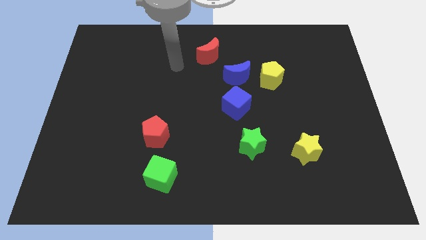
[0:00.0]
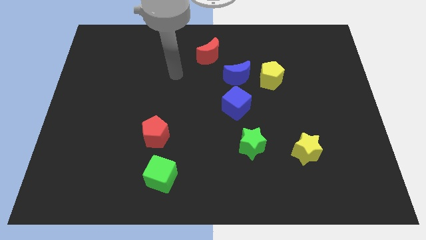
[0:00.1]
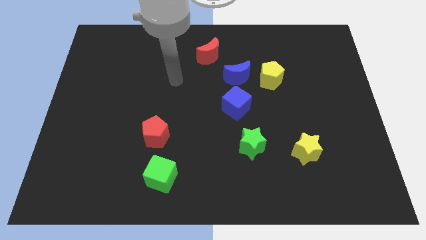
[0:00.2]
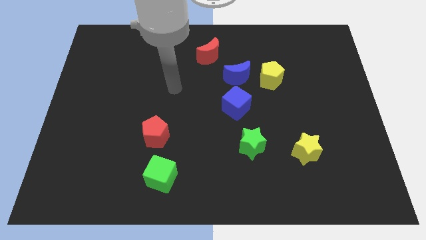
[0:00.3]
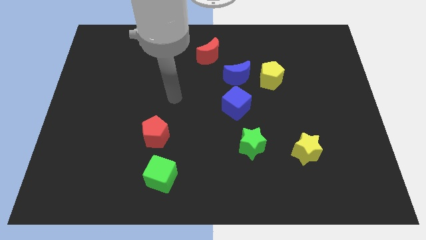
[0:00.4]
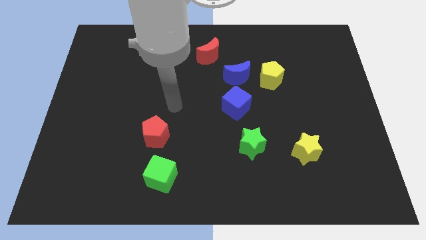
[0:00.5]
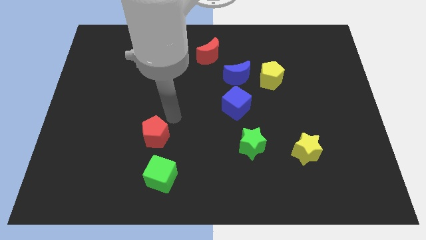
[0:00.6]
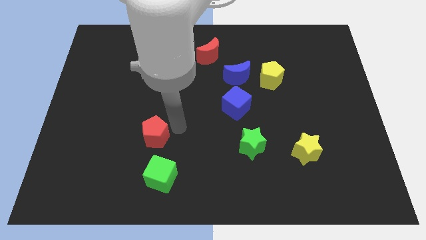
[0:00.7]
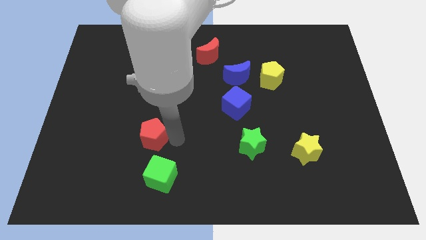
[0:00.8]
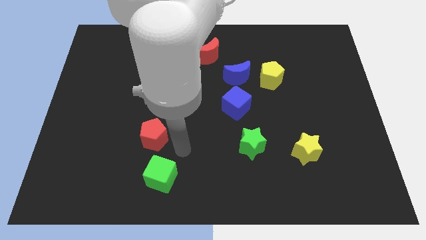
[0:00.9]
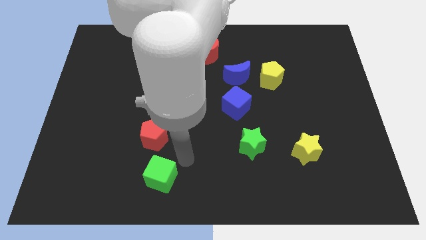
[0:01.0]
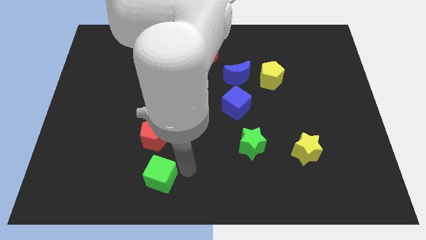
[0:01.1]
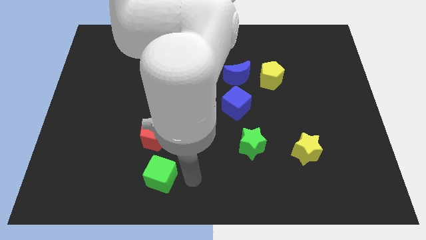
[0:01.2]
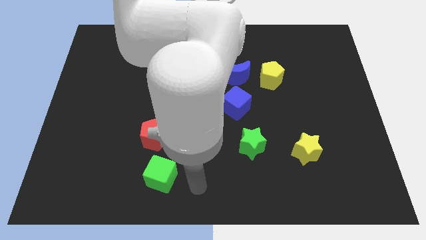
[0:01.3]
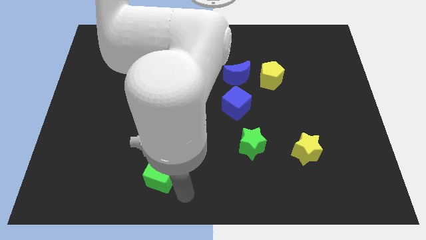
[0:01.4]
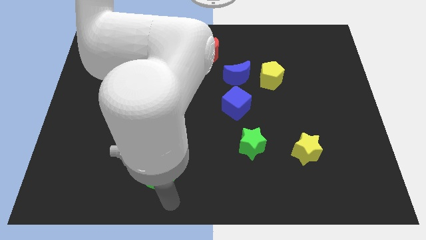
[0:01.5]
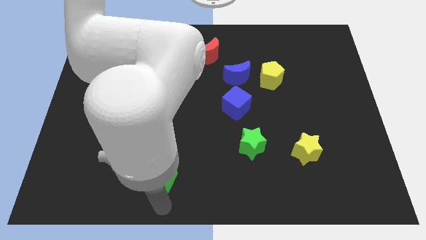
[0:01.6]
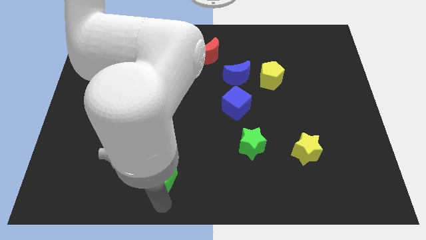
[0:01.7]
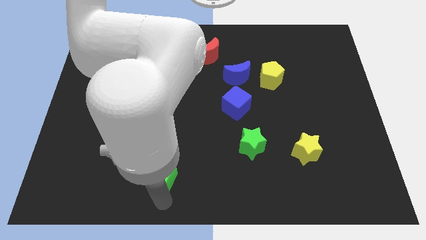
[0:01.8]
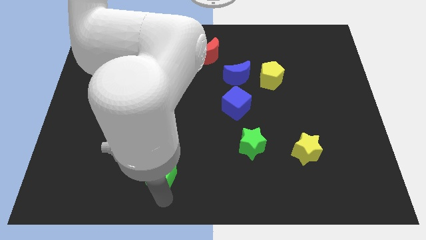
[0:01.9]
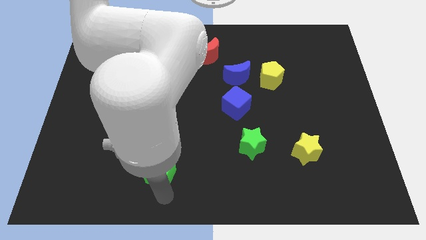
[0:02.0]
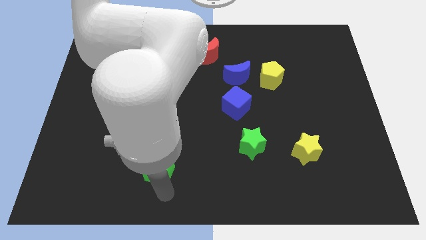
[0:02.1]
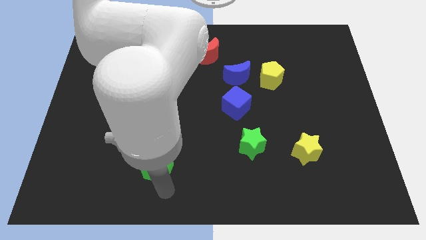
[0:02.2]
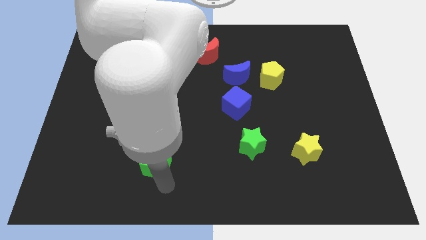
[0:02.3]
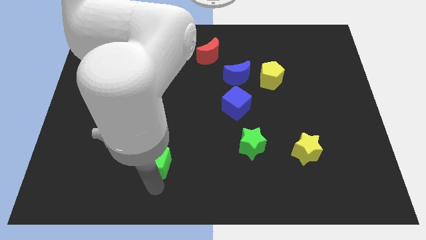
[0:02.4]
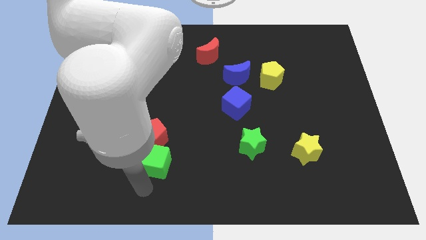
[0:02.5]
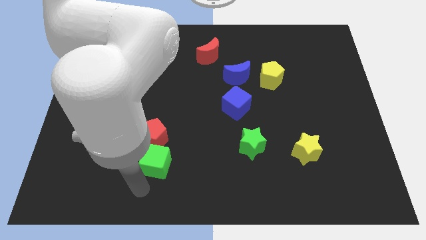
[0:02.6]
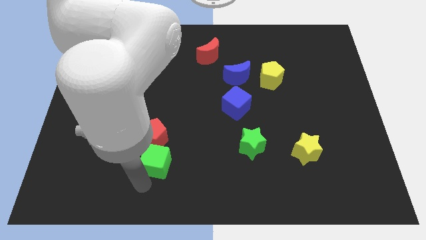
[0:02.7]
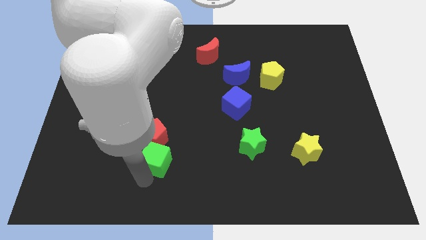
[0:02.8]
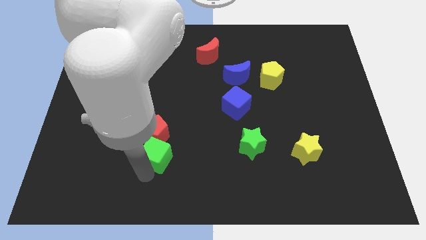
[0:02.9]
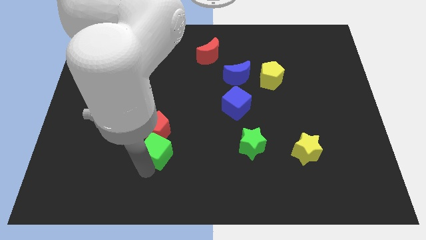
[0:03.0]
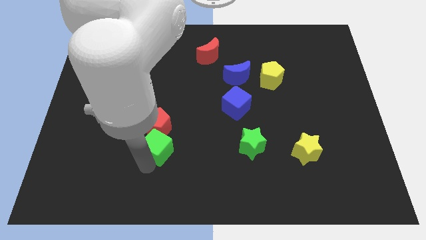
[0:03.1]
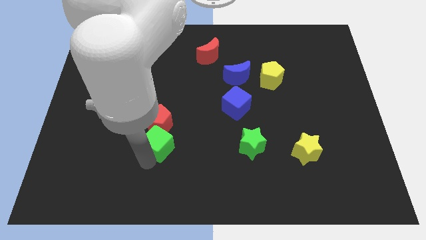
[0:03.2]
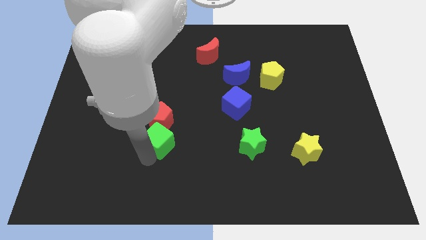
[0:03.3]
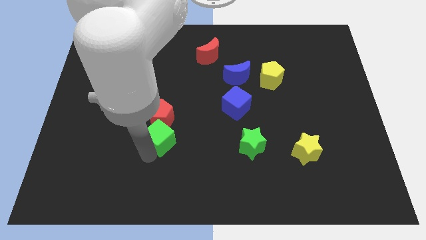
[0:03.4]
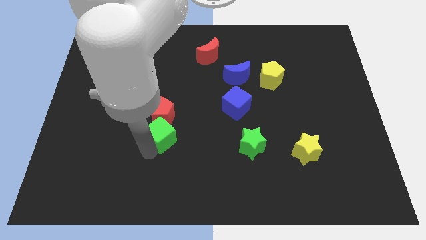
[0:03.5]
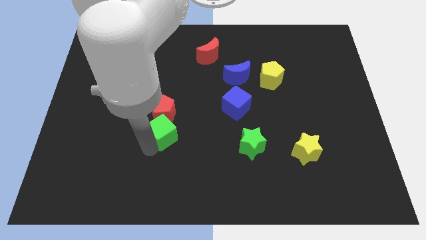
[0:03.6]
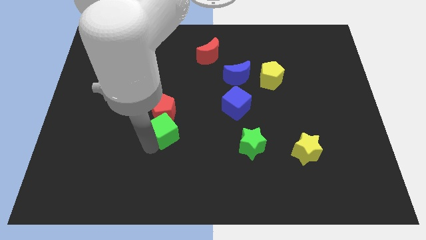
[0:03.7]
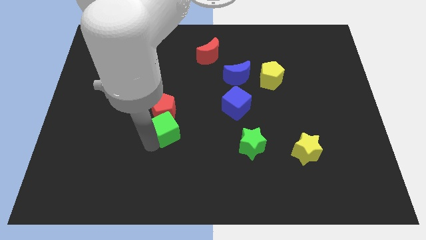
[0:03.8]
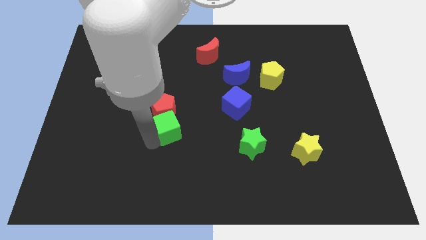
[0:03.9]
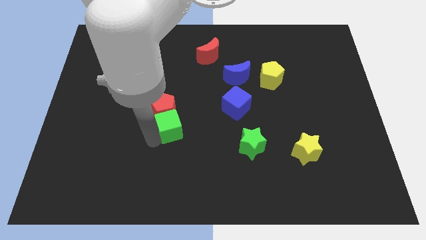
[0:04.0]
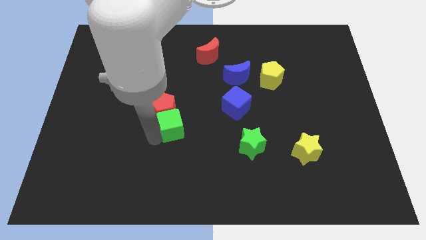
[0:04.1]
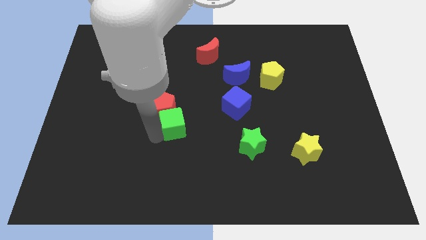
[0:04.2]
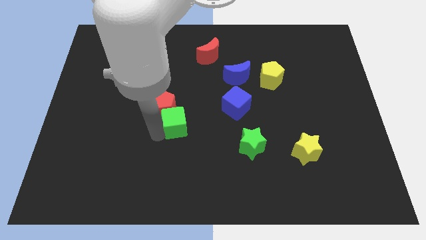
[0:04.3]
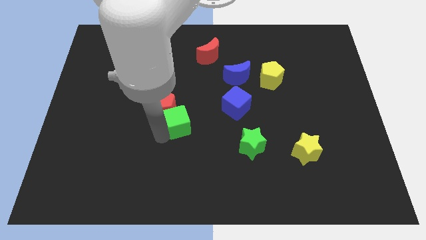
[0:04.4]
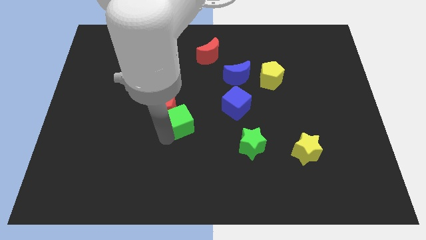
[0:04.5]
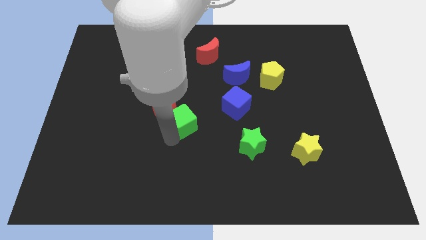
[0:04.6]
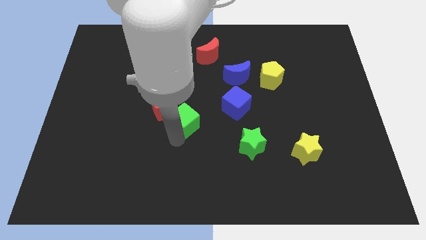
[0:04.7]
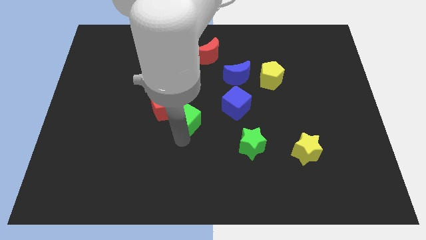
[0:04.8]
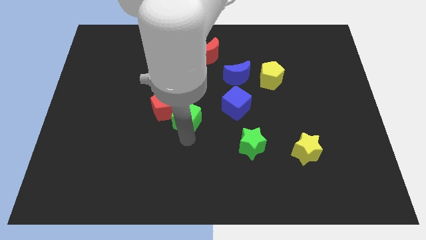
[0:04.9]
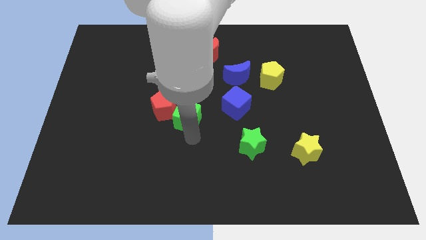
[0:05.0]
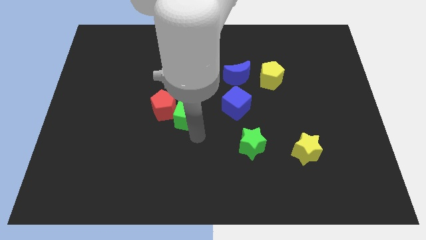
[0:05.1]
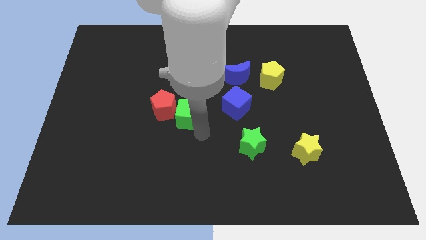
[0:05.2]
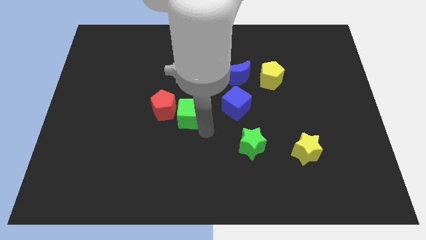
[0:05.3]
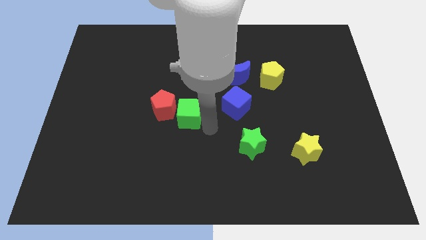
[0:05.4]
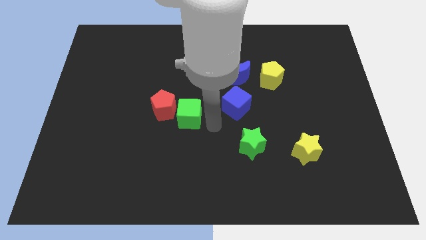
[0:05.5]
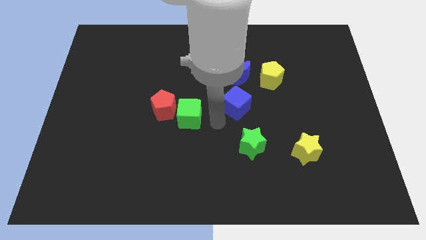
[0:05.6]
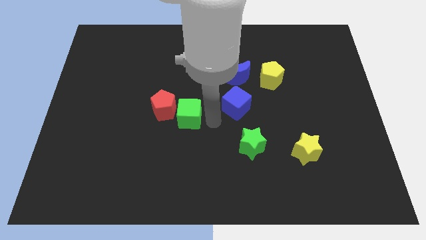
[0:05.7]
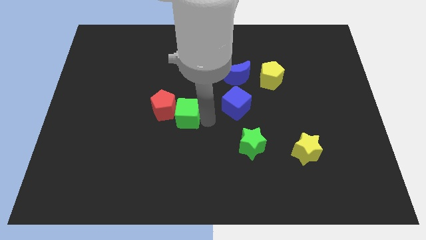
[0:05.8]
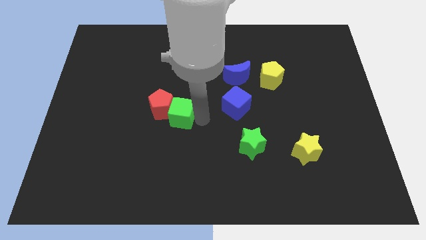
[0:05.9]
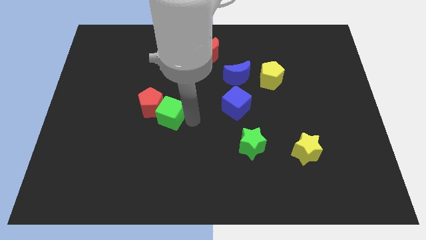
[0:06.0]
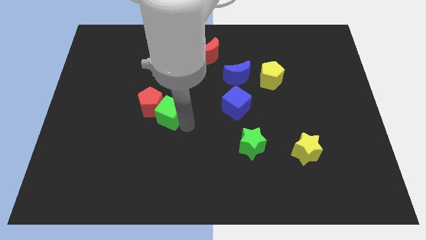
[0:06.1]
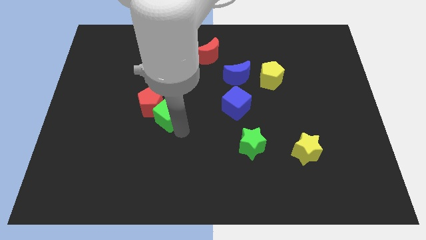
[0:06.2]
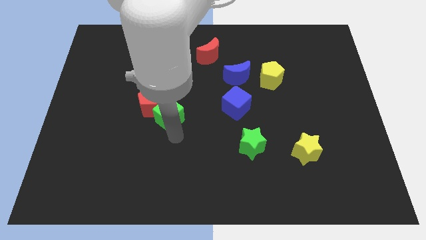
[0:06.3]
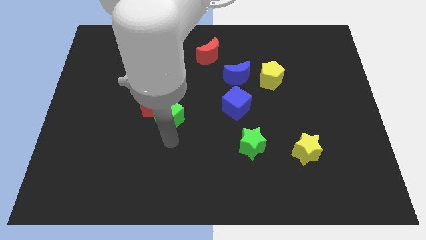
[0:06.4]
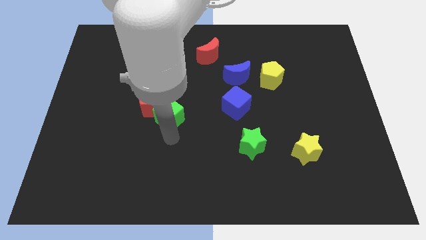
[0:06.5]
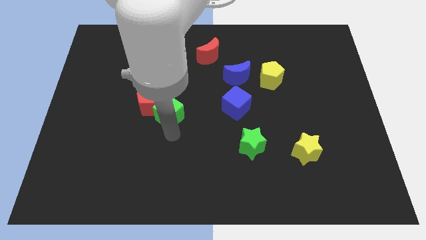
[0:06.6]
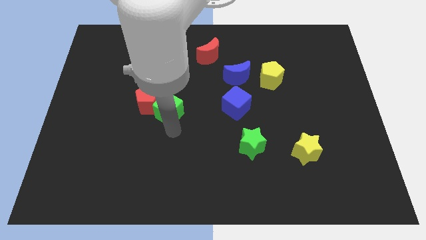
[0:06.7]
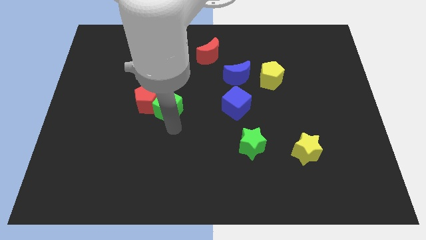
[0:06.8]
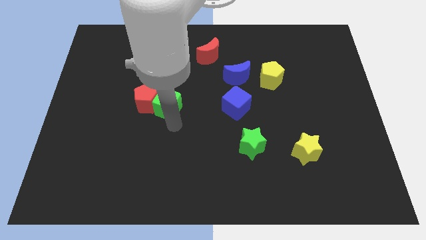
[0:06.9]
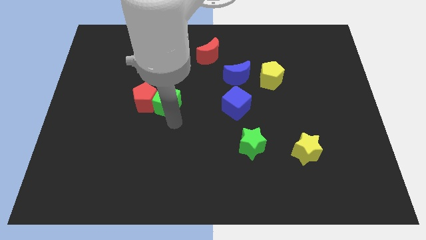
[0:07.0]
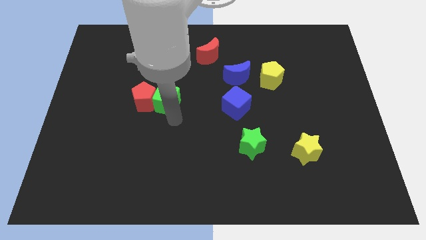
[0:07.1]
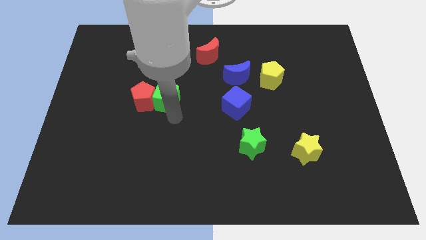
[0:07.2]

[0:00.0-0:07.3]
move the green cube upwards

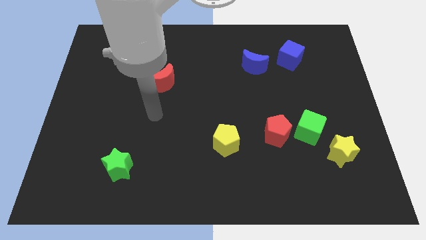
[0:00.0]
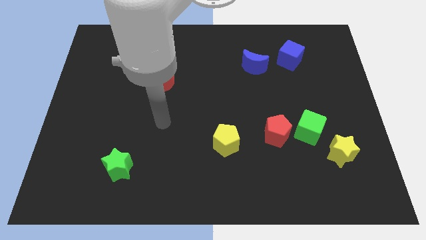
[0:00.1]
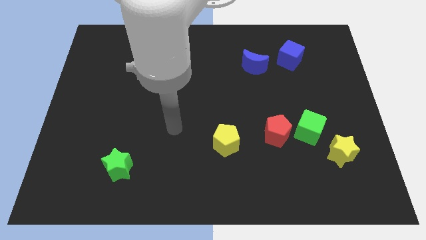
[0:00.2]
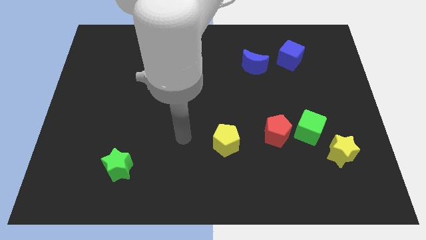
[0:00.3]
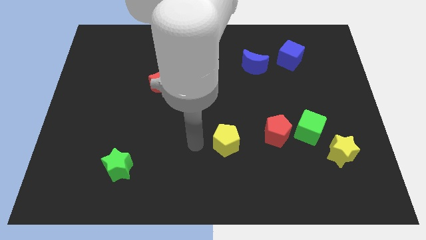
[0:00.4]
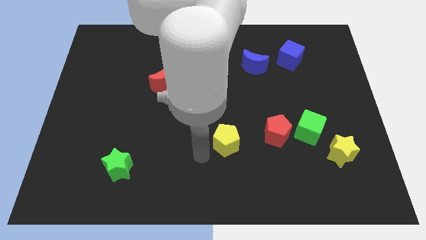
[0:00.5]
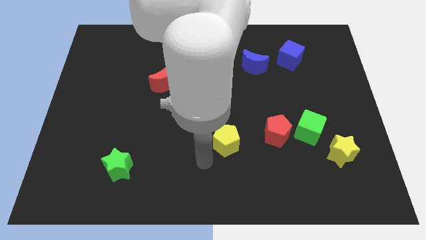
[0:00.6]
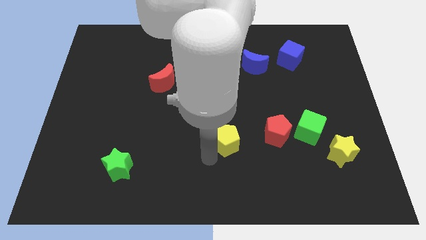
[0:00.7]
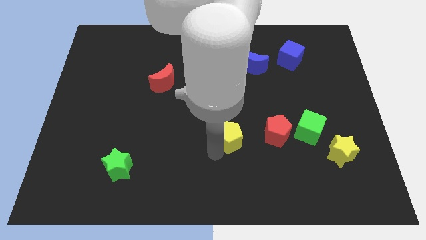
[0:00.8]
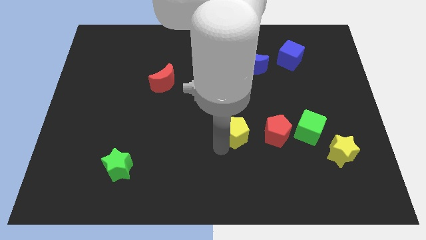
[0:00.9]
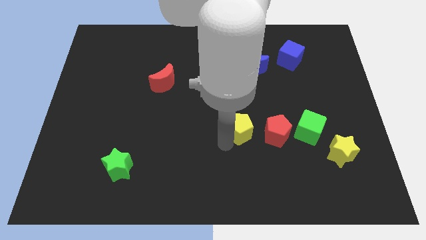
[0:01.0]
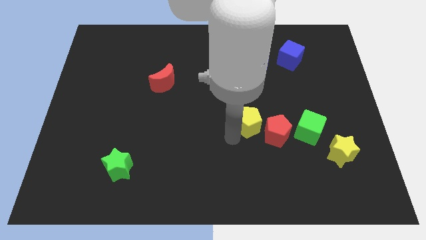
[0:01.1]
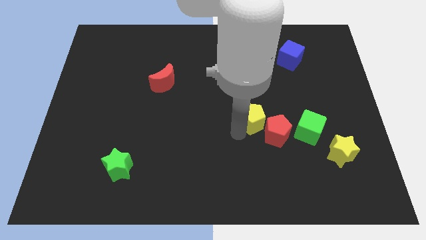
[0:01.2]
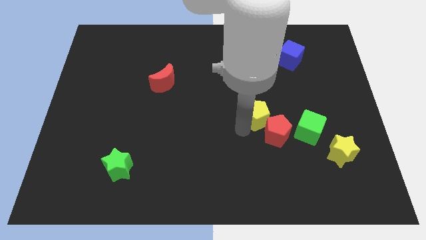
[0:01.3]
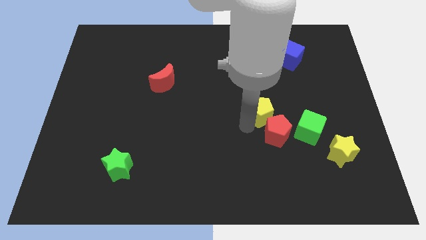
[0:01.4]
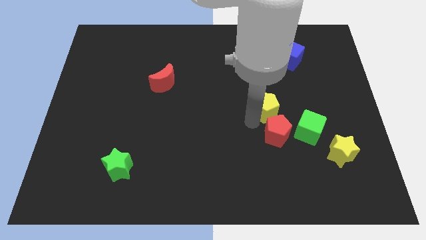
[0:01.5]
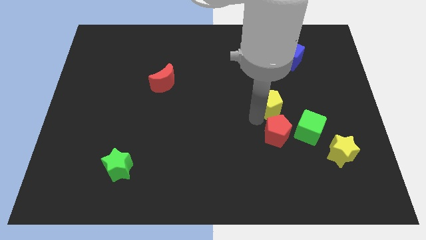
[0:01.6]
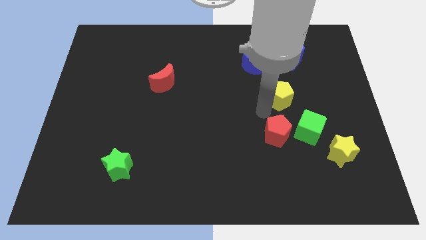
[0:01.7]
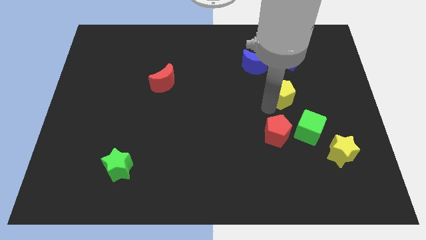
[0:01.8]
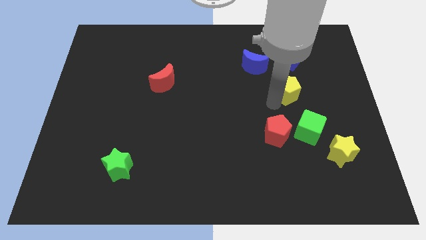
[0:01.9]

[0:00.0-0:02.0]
push the yellow pentagon upwards and to the right
